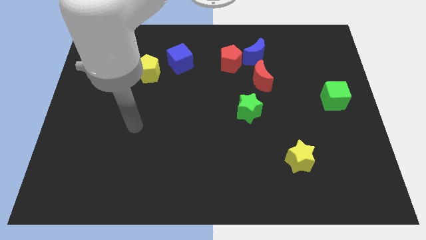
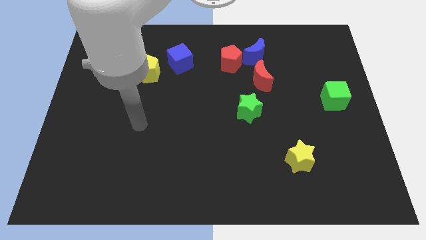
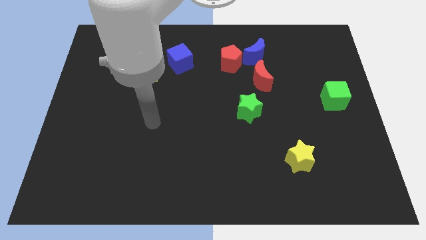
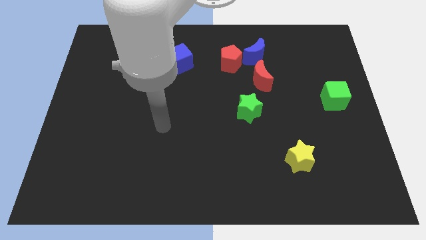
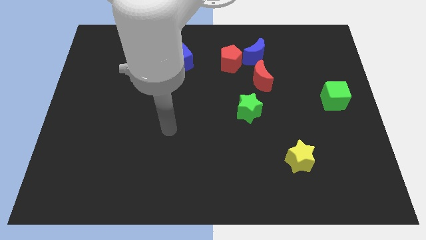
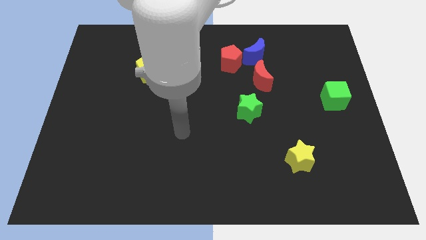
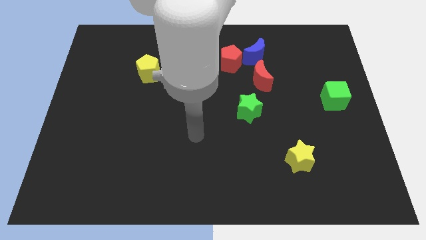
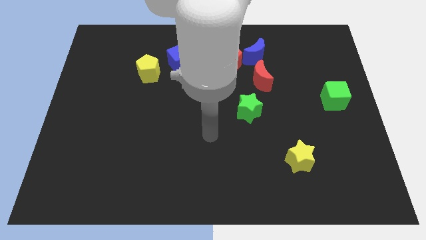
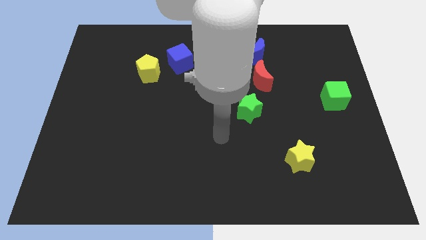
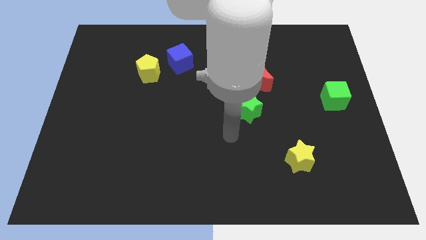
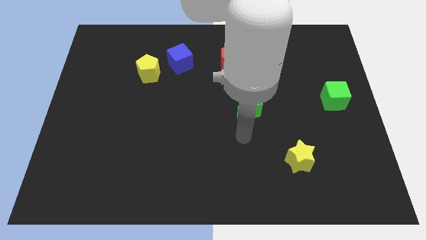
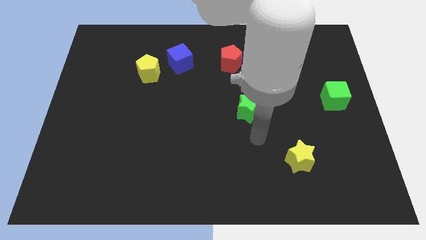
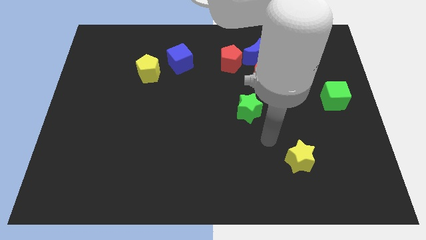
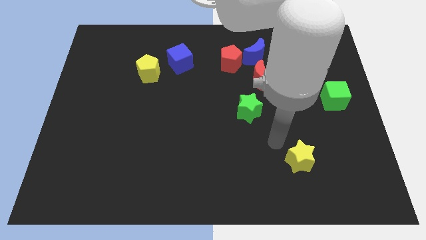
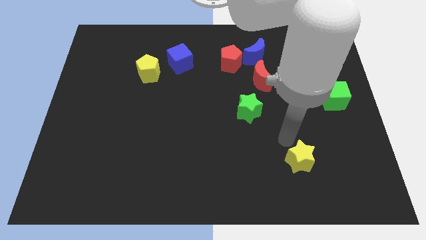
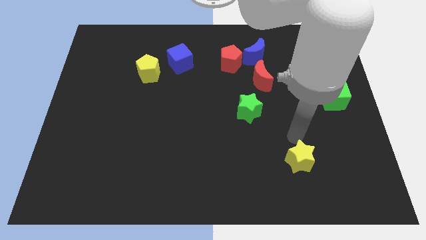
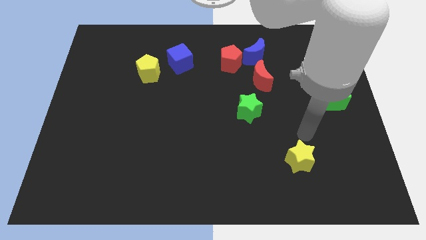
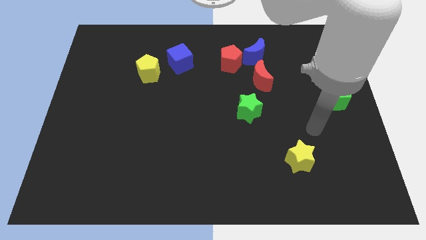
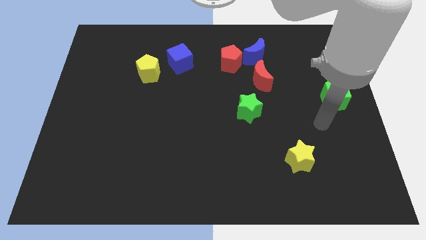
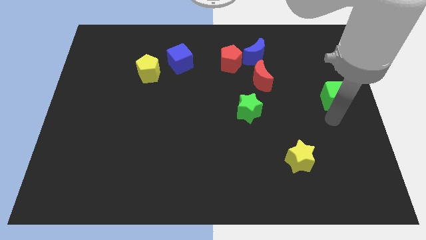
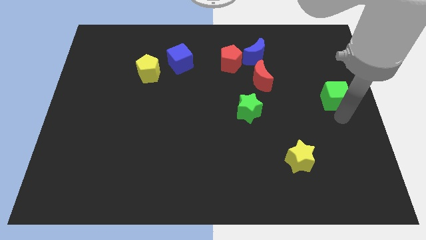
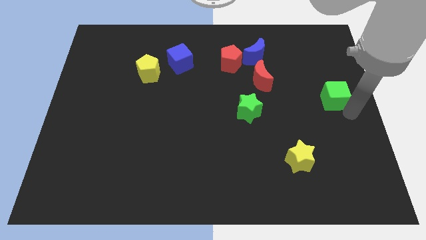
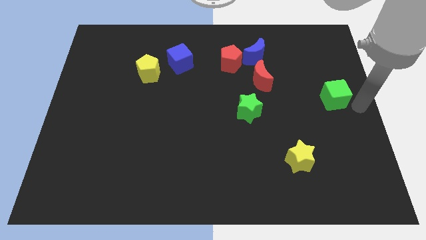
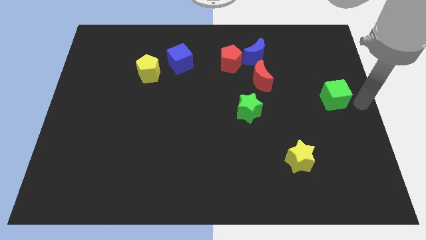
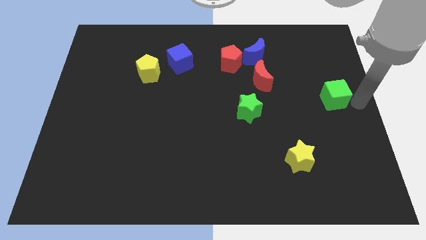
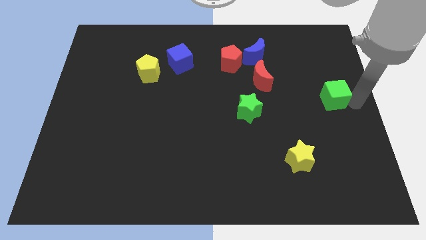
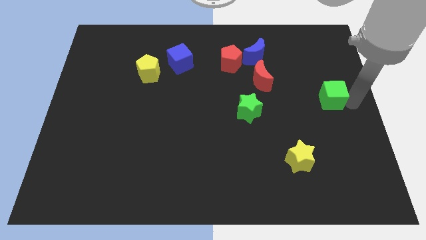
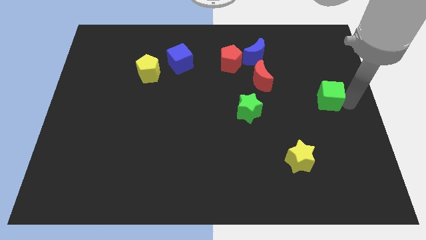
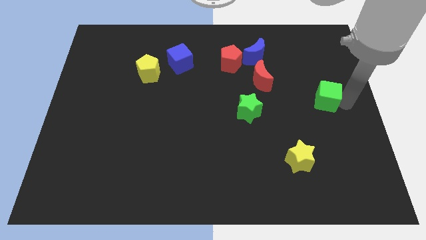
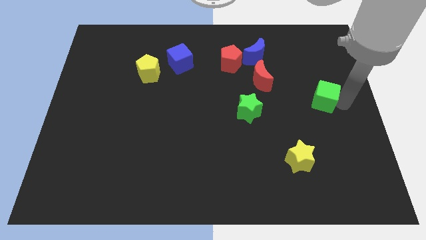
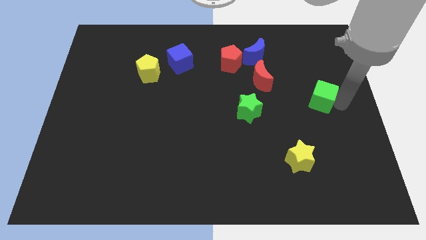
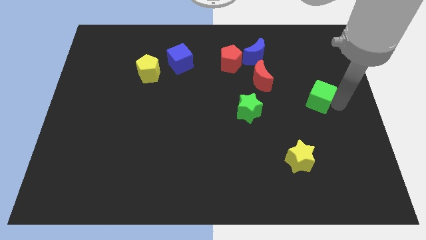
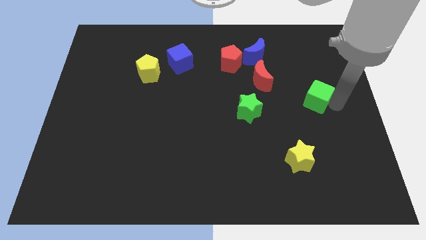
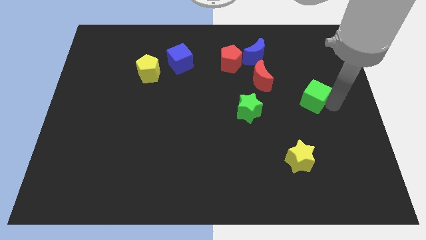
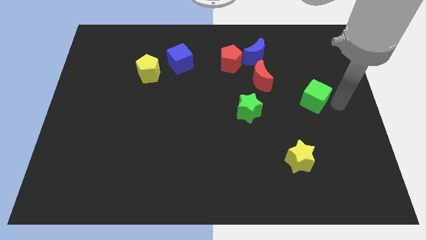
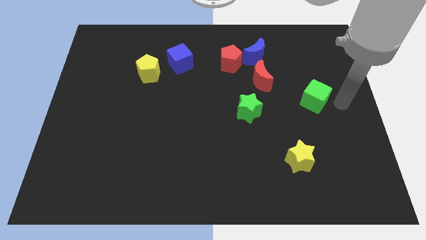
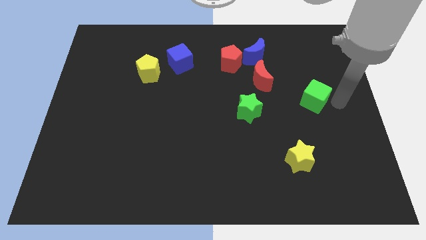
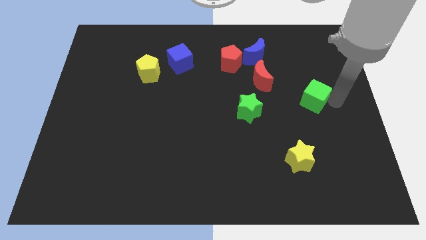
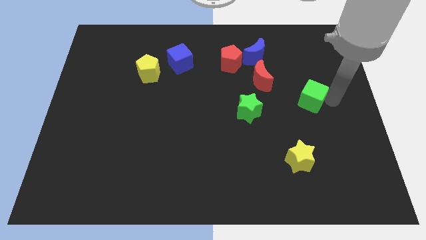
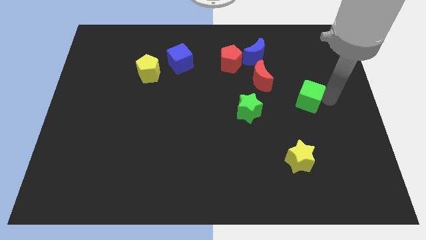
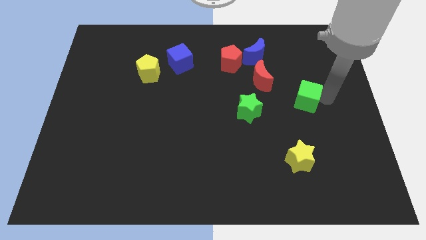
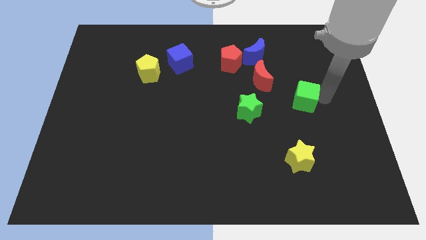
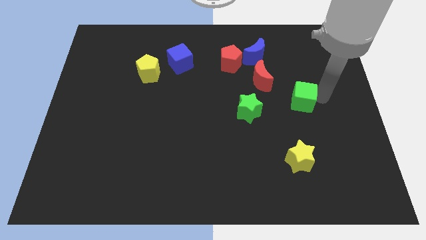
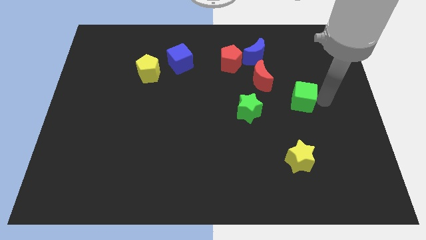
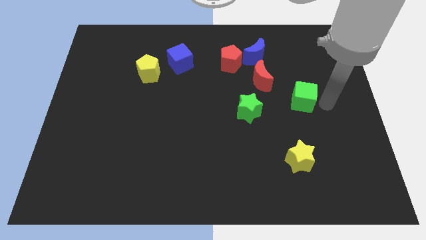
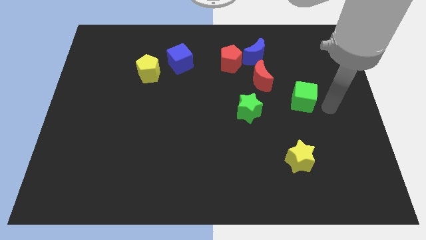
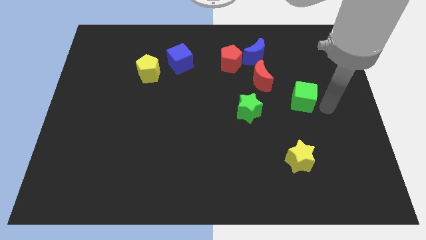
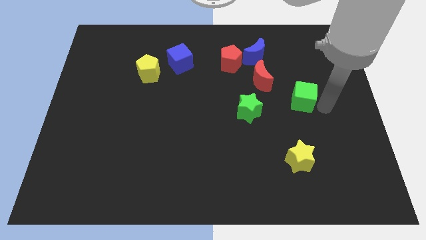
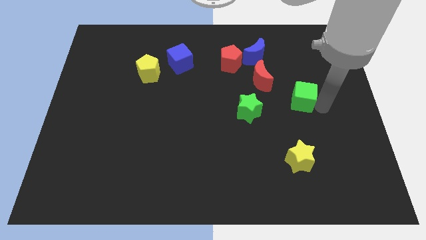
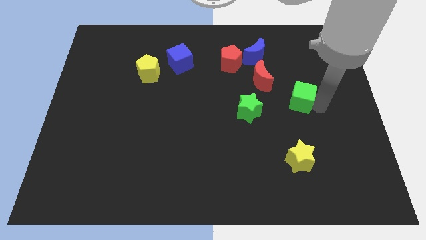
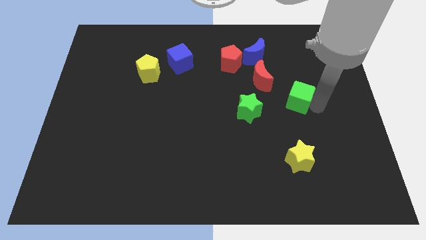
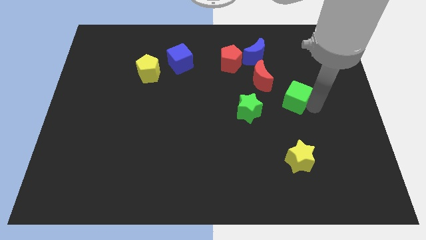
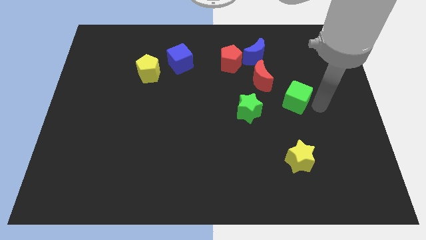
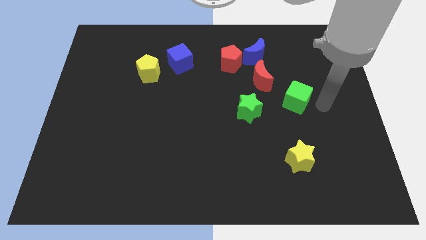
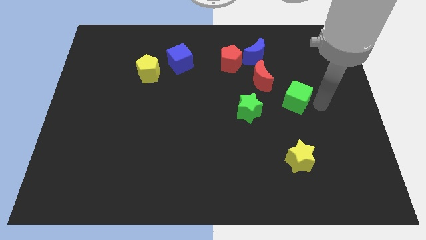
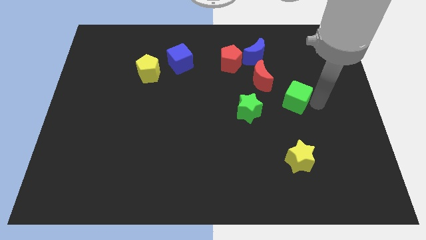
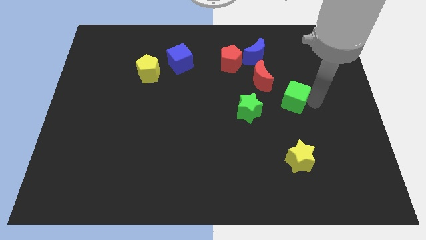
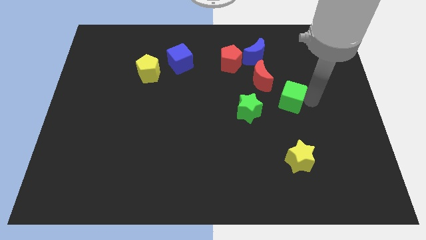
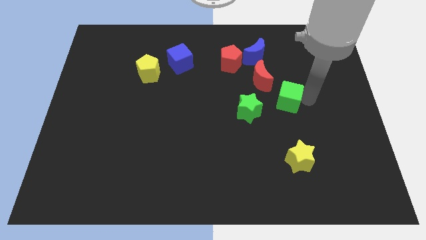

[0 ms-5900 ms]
push the green cube diagonally up and to the right of the green star
